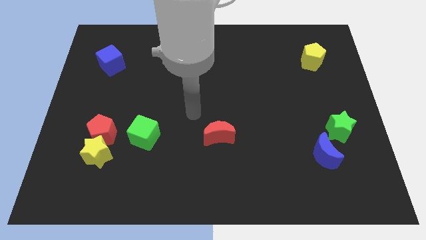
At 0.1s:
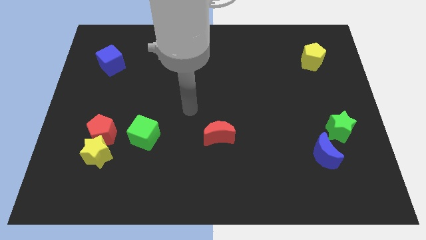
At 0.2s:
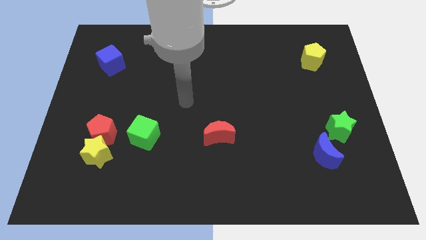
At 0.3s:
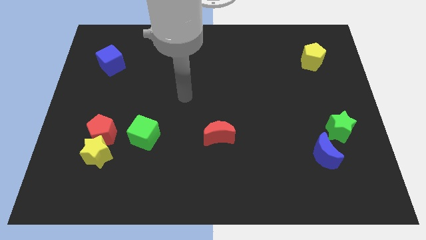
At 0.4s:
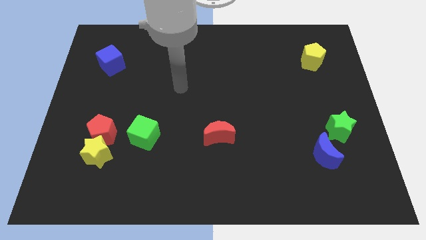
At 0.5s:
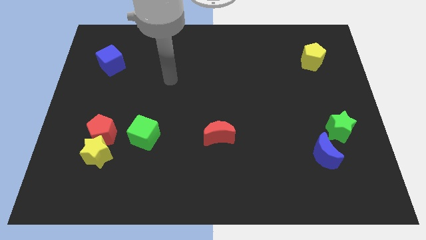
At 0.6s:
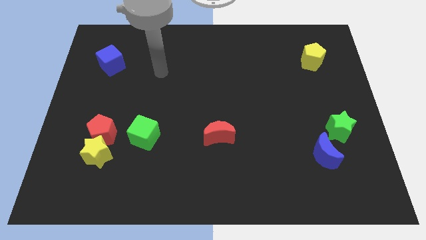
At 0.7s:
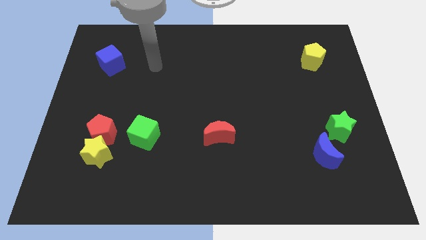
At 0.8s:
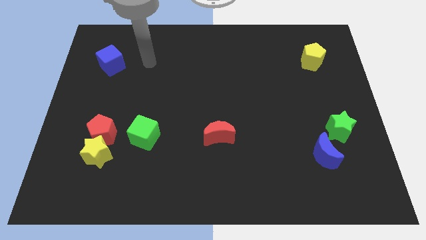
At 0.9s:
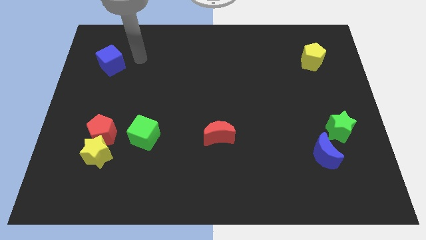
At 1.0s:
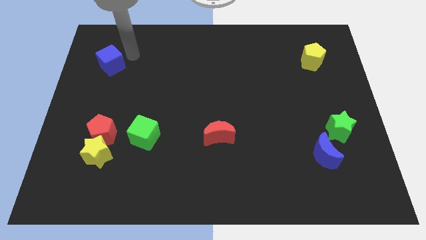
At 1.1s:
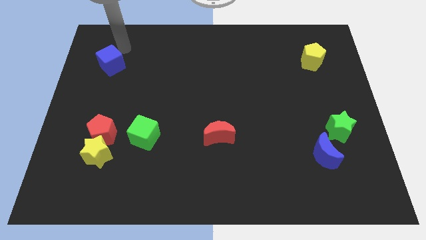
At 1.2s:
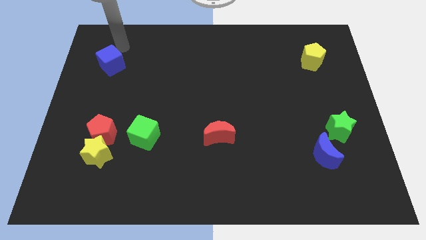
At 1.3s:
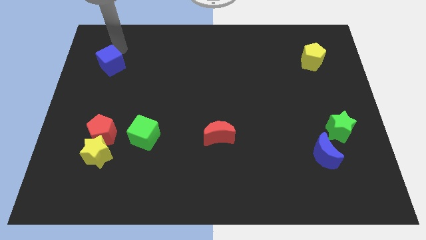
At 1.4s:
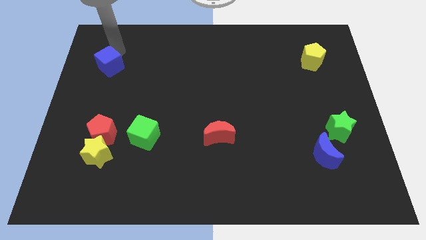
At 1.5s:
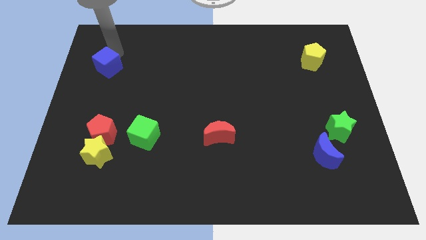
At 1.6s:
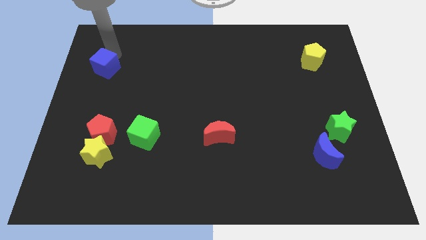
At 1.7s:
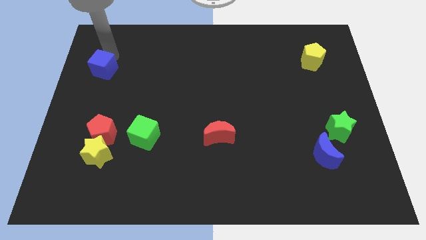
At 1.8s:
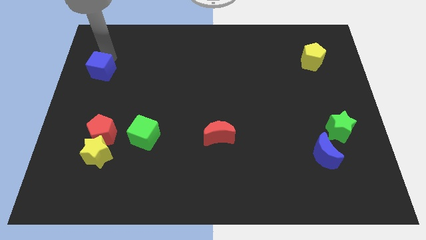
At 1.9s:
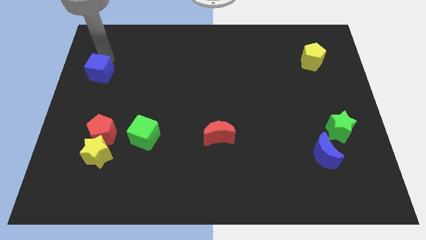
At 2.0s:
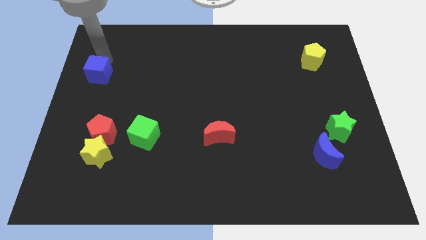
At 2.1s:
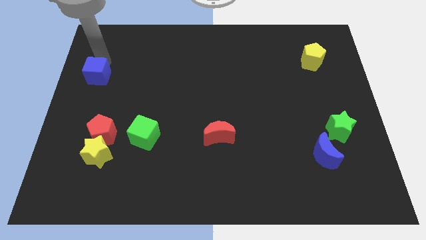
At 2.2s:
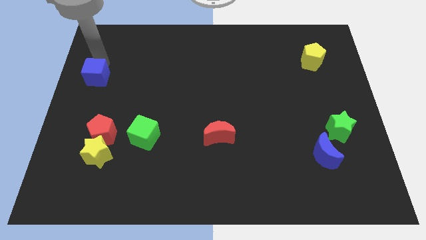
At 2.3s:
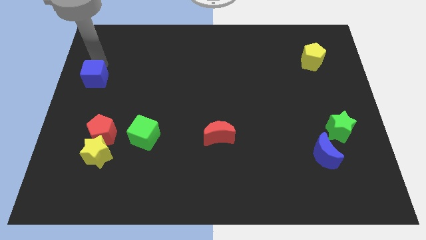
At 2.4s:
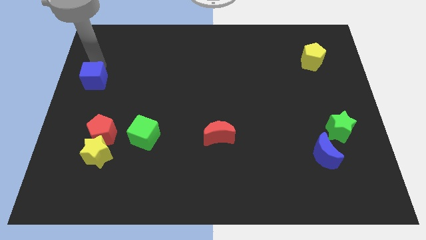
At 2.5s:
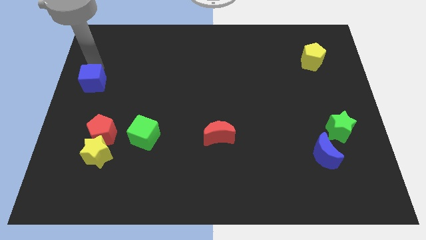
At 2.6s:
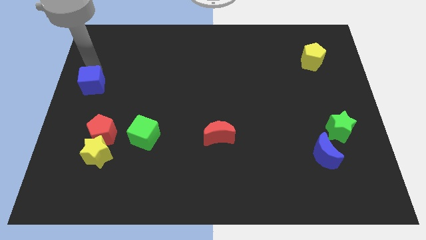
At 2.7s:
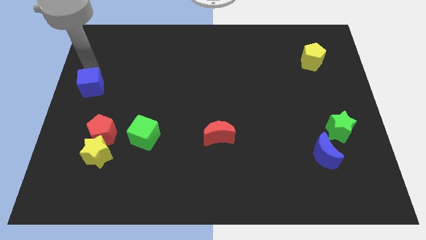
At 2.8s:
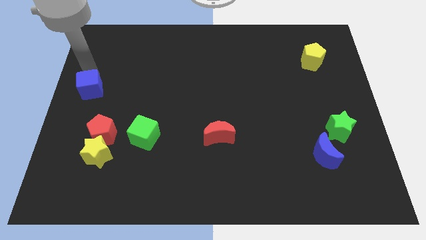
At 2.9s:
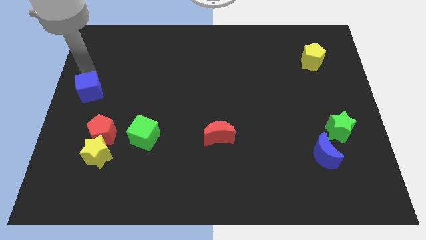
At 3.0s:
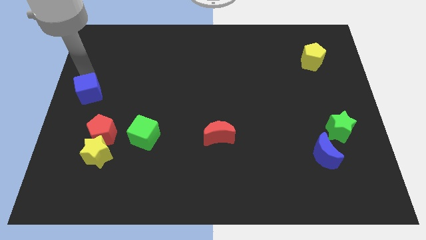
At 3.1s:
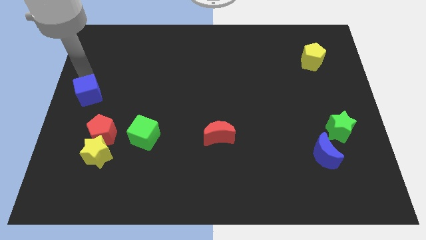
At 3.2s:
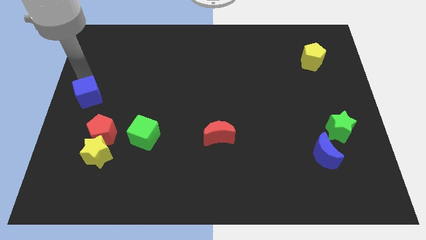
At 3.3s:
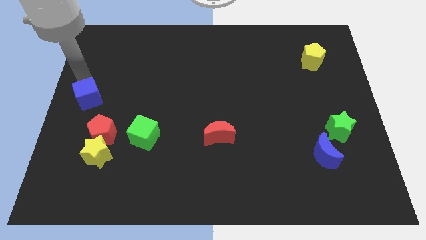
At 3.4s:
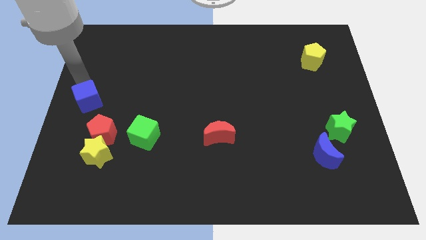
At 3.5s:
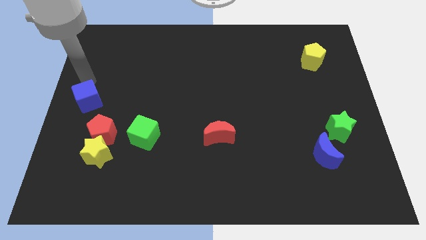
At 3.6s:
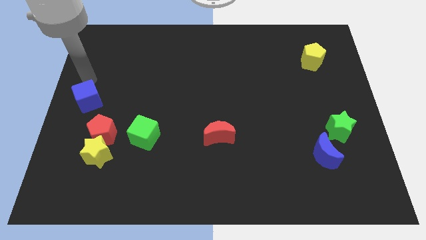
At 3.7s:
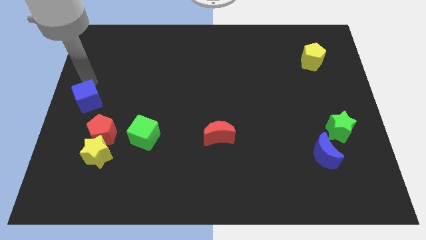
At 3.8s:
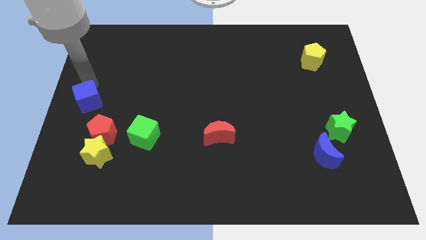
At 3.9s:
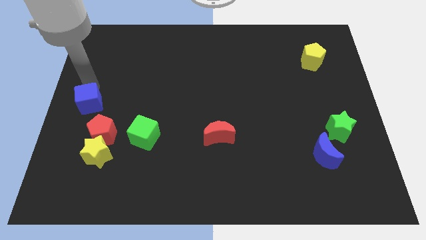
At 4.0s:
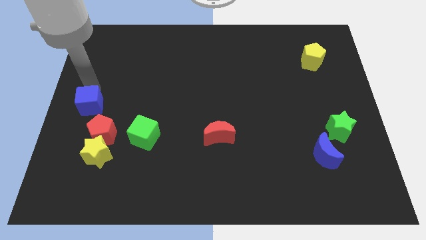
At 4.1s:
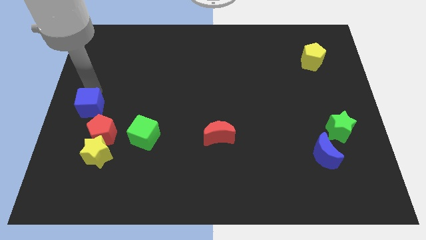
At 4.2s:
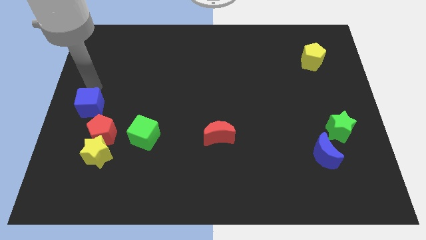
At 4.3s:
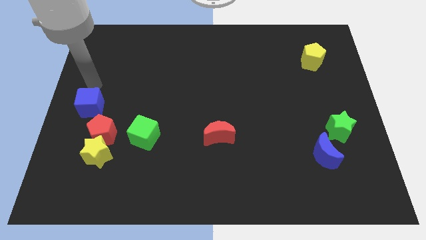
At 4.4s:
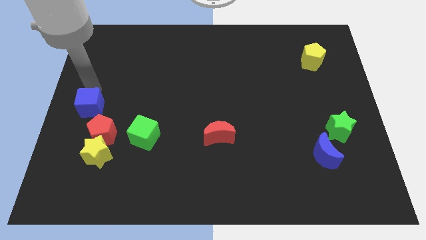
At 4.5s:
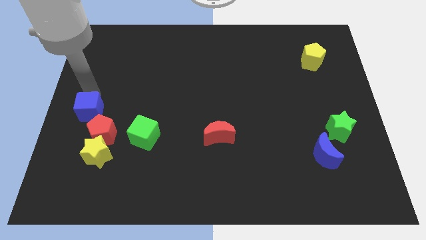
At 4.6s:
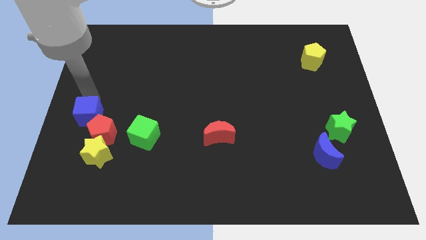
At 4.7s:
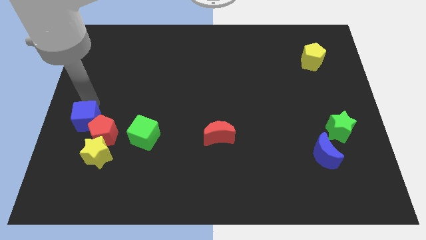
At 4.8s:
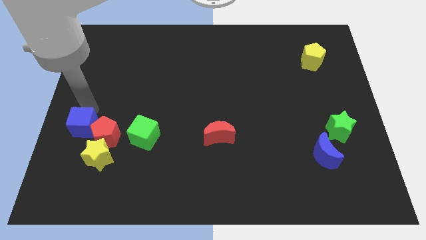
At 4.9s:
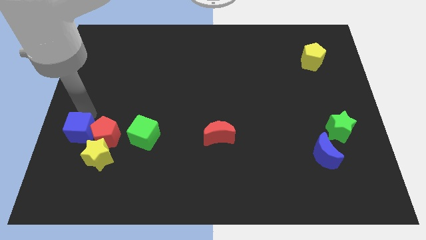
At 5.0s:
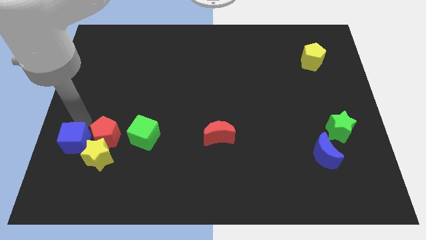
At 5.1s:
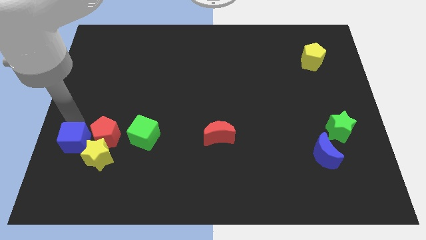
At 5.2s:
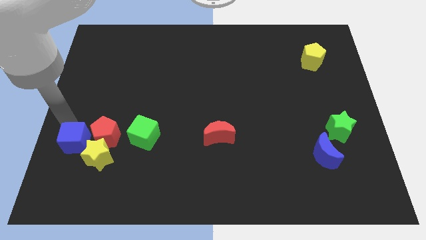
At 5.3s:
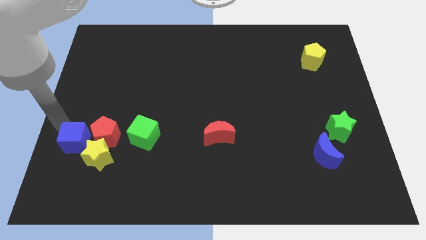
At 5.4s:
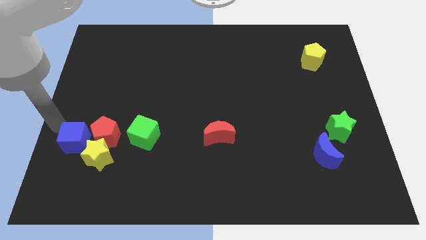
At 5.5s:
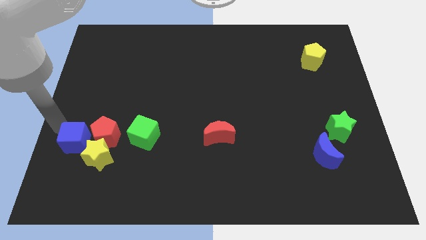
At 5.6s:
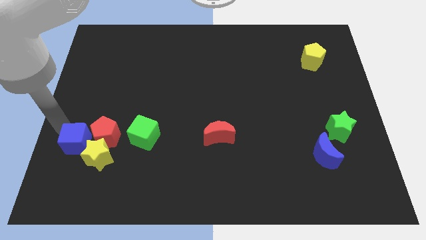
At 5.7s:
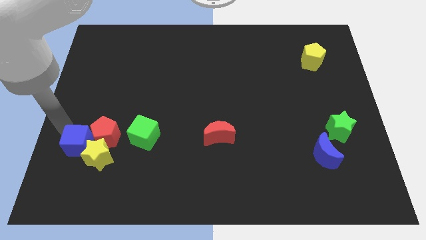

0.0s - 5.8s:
slide the blue cube next to the yellow star

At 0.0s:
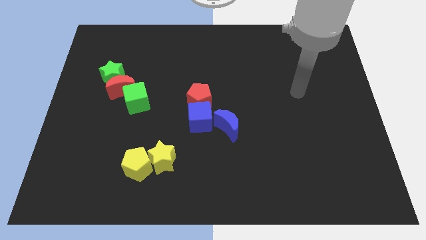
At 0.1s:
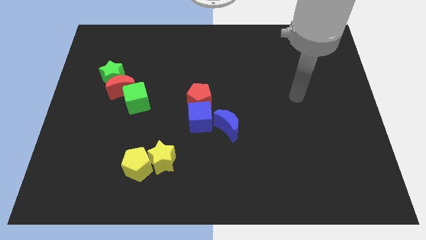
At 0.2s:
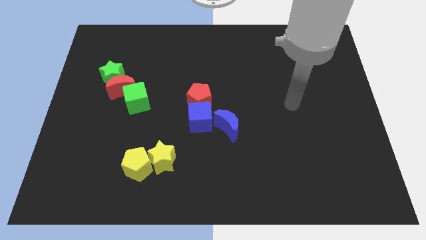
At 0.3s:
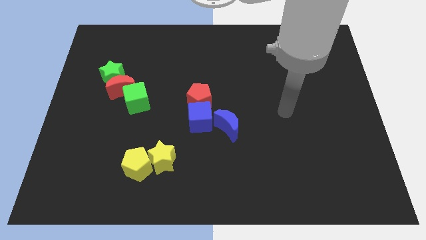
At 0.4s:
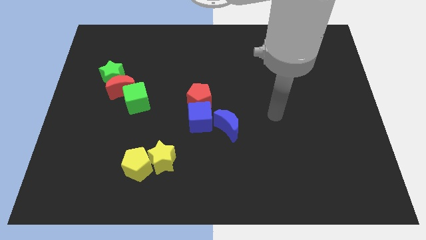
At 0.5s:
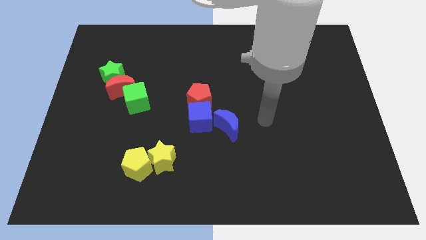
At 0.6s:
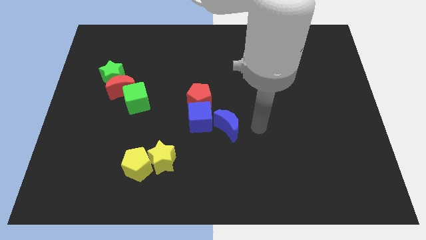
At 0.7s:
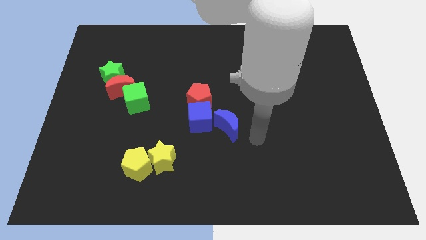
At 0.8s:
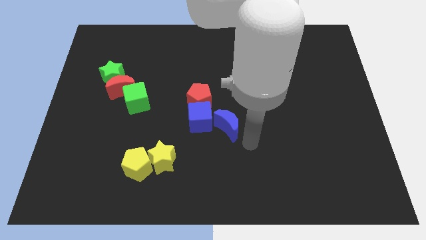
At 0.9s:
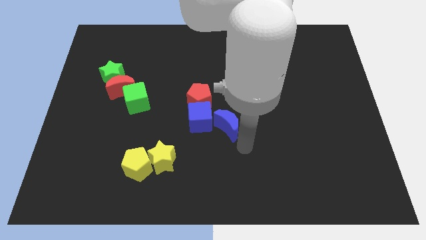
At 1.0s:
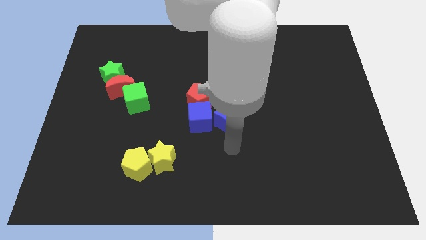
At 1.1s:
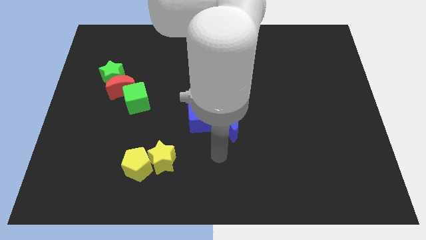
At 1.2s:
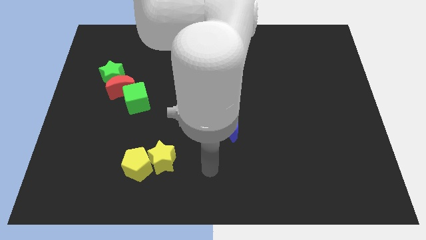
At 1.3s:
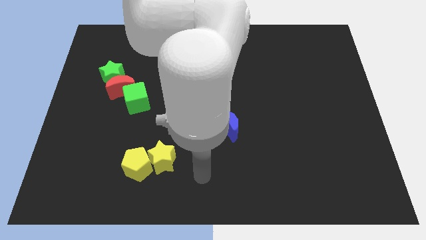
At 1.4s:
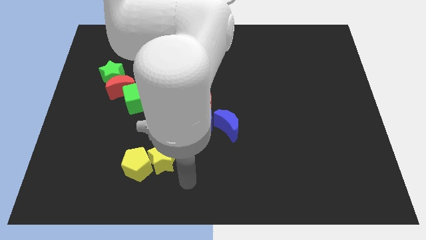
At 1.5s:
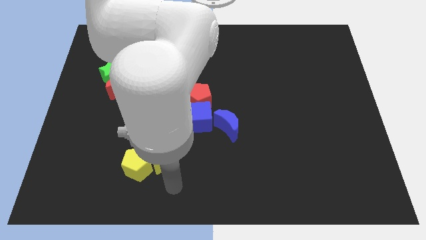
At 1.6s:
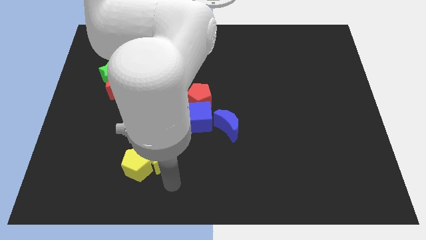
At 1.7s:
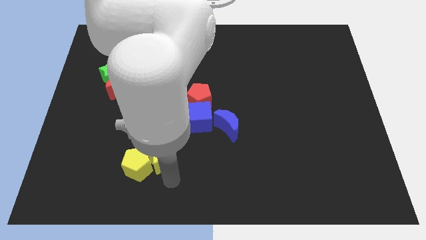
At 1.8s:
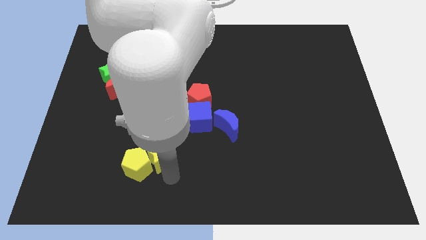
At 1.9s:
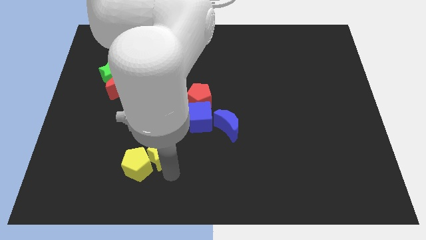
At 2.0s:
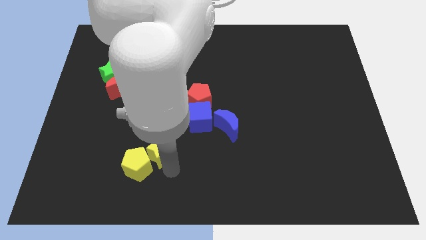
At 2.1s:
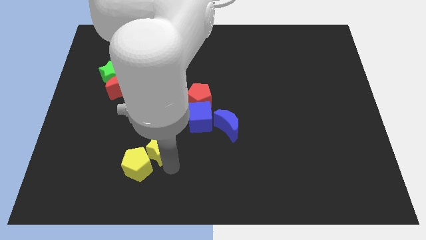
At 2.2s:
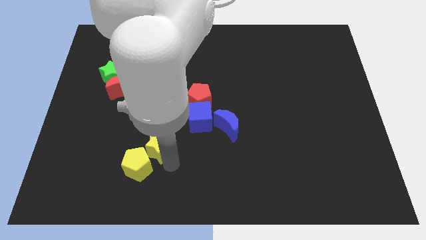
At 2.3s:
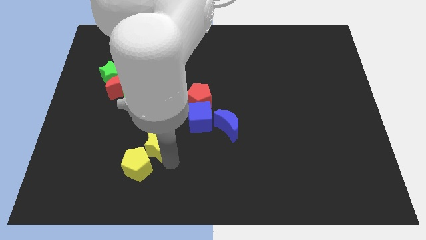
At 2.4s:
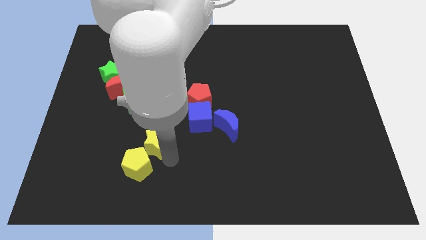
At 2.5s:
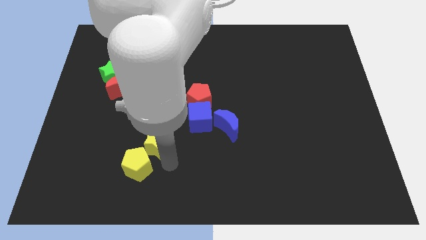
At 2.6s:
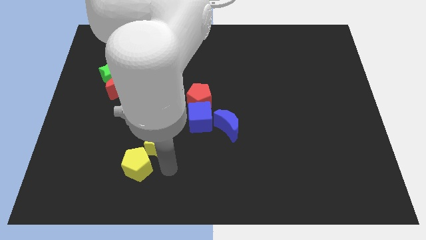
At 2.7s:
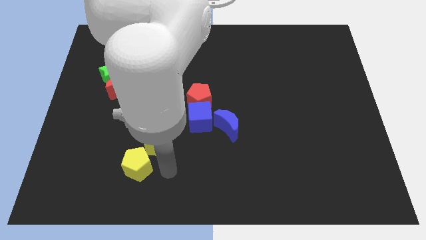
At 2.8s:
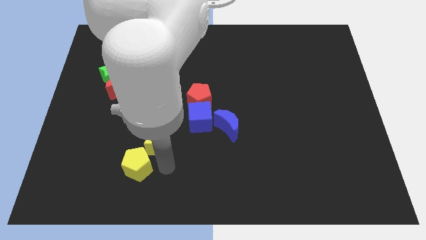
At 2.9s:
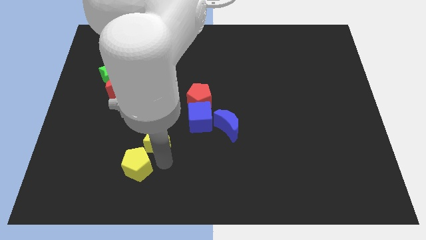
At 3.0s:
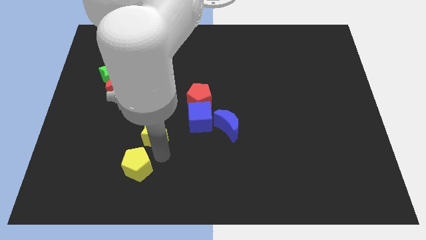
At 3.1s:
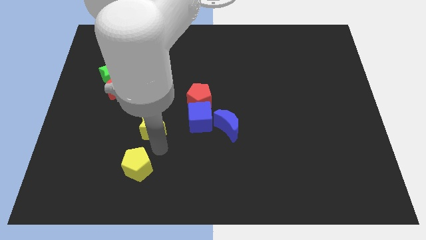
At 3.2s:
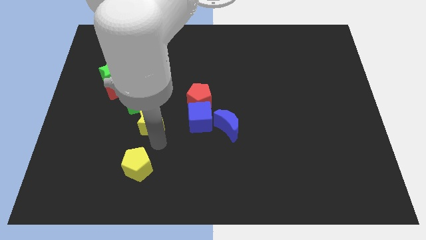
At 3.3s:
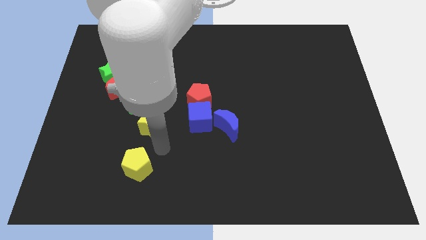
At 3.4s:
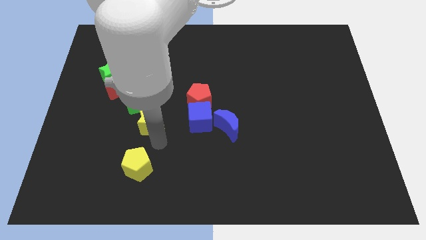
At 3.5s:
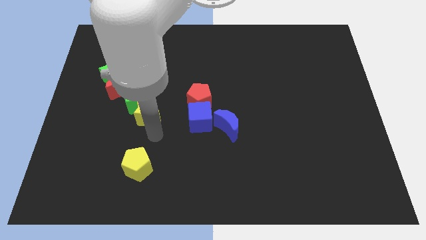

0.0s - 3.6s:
slide the yellow star to the green cube
